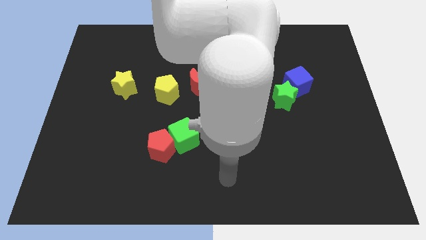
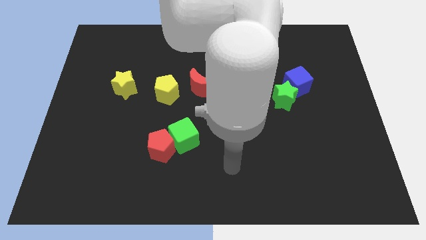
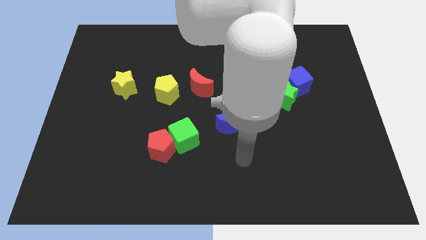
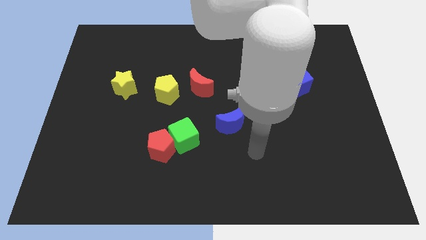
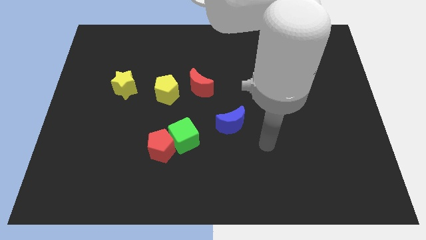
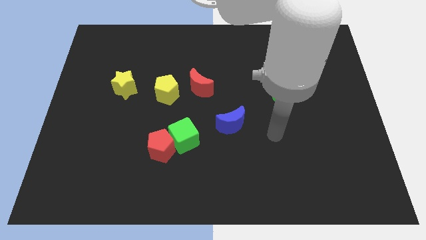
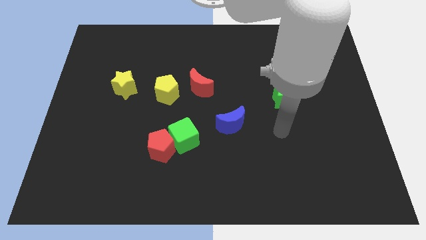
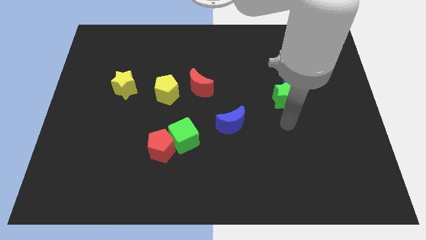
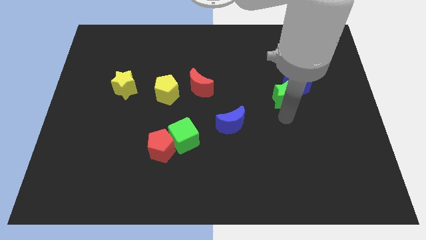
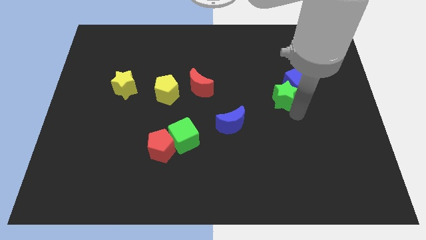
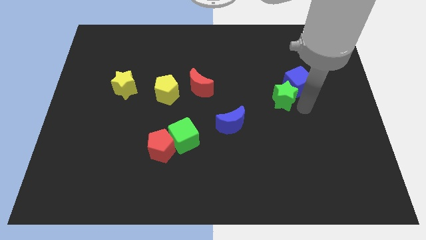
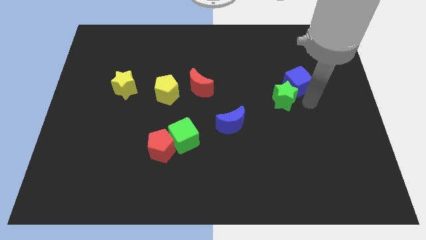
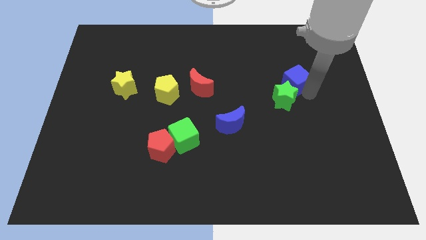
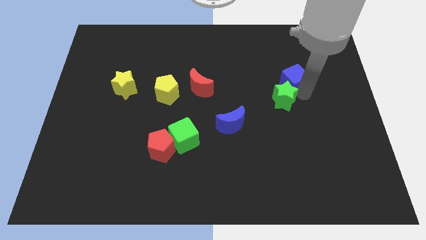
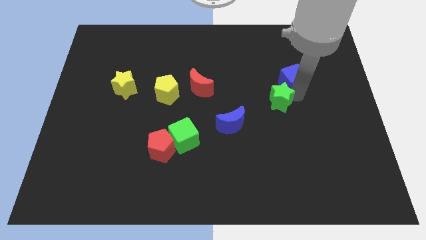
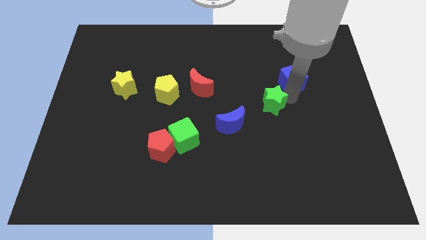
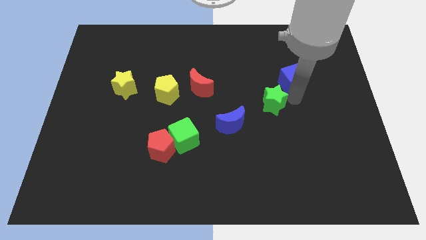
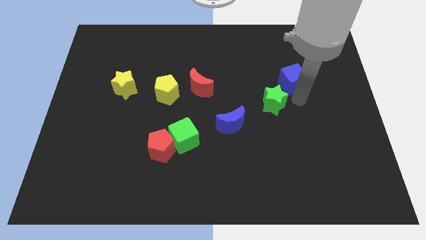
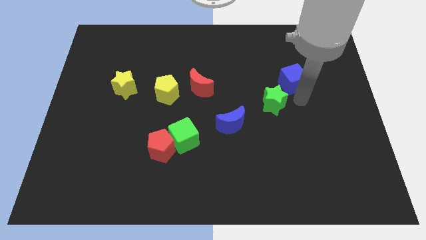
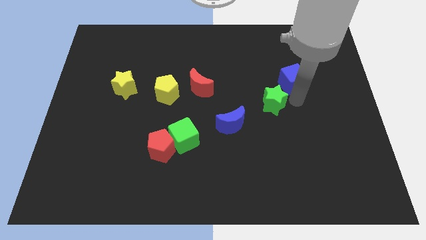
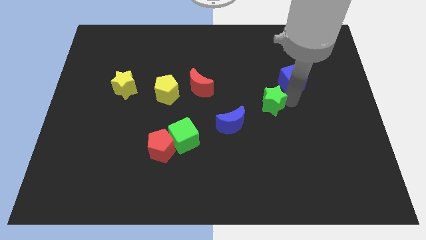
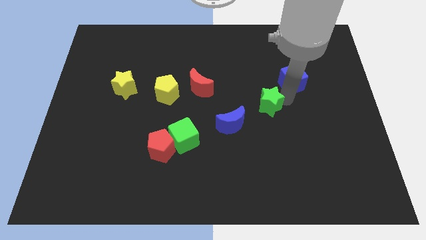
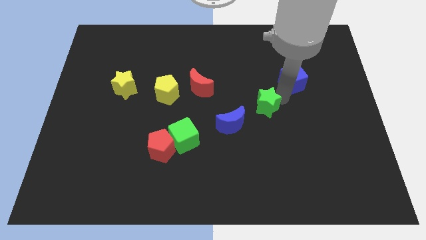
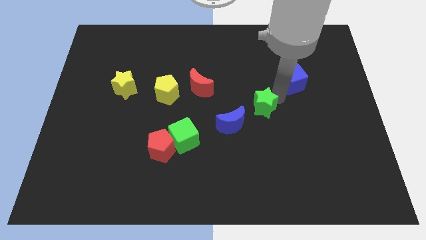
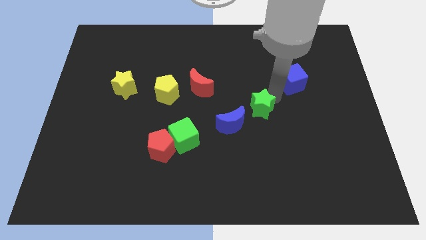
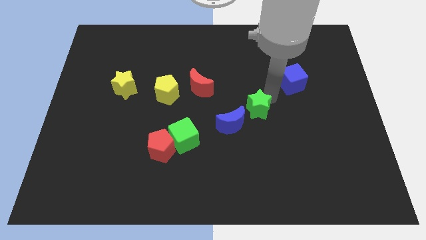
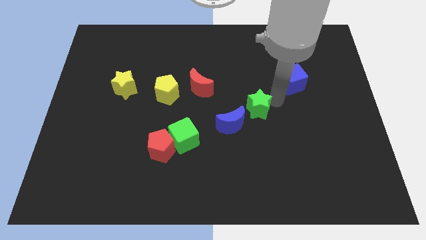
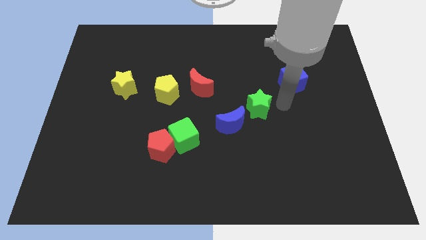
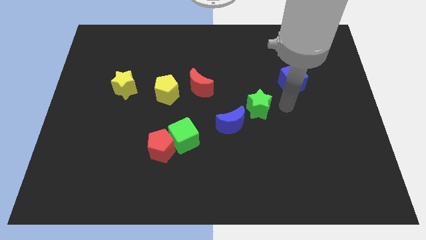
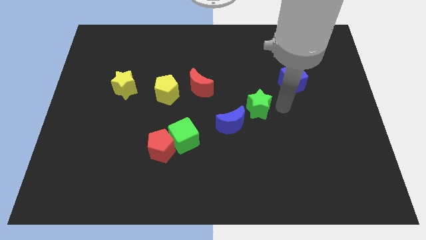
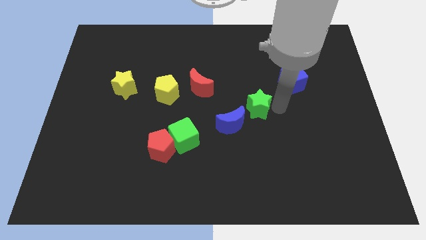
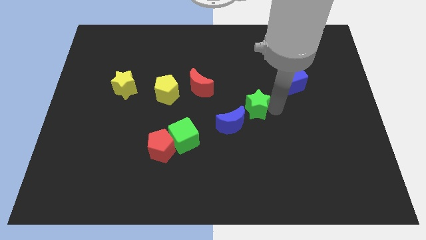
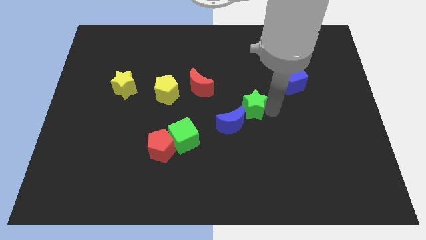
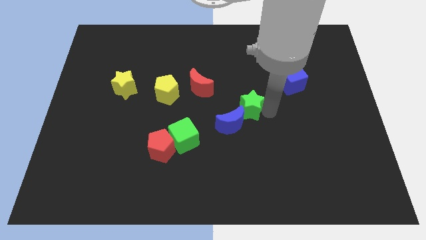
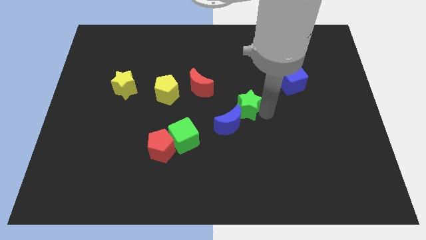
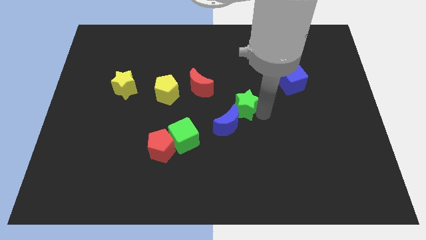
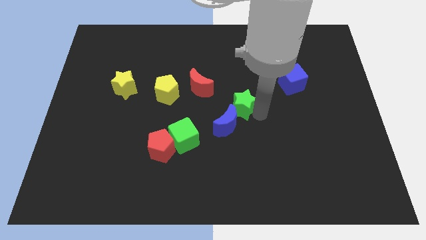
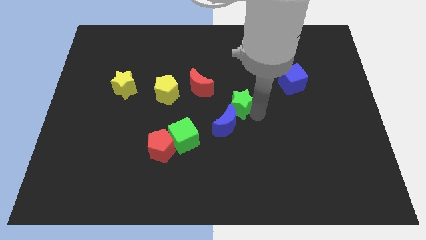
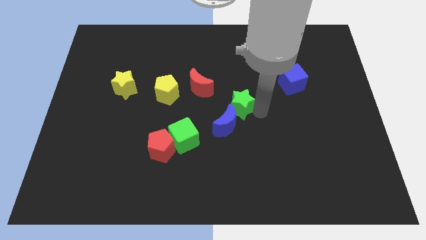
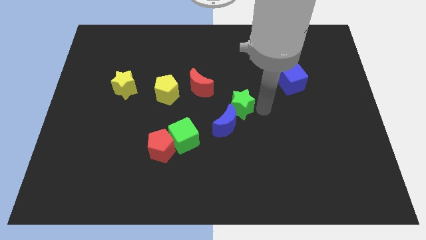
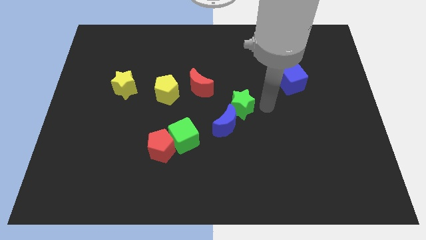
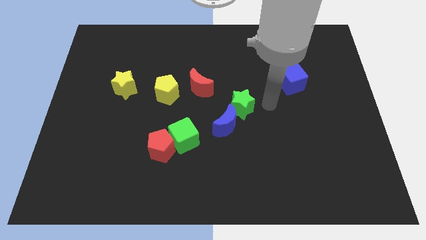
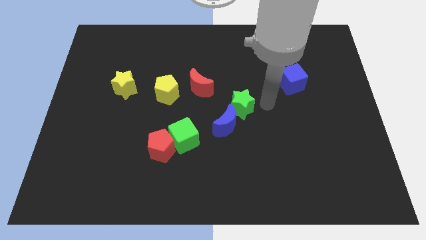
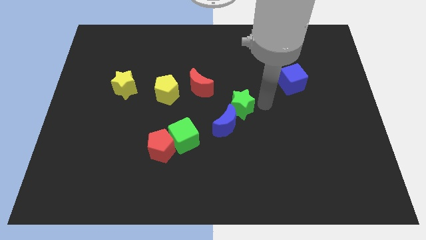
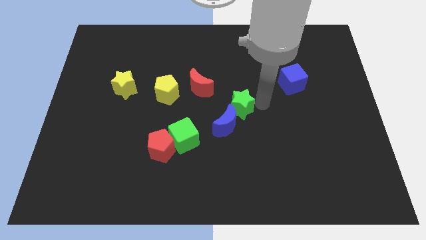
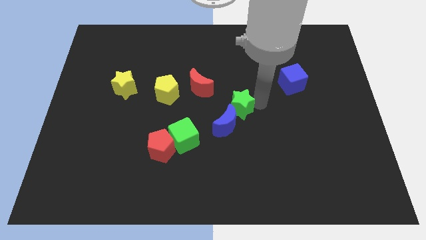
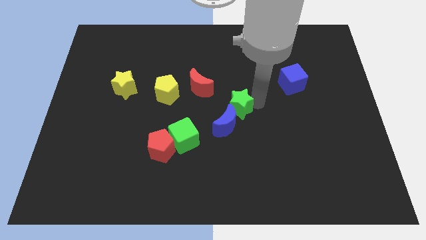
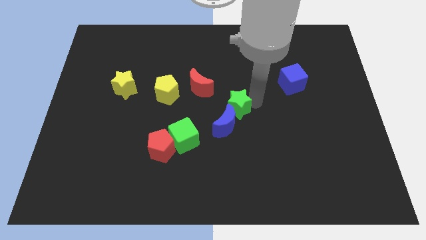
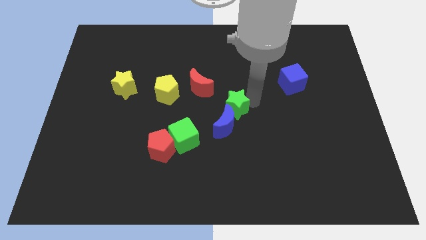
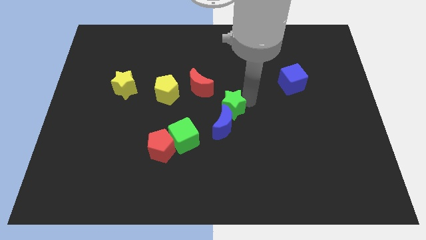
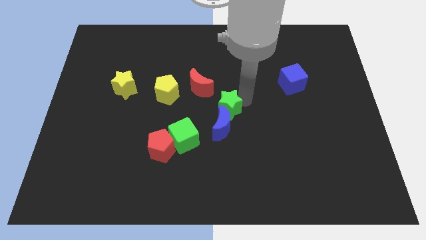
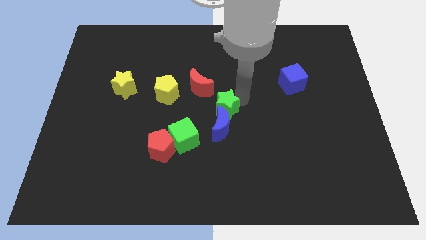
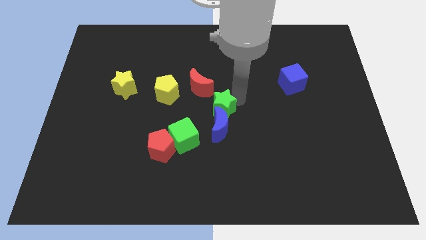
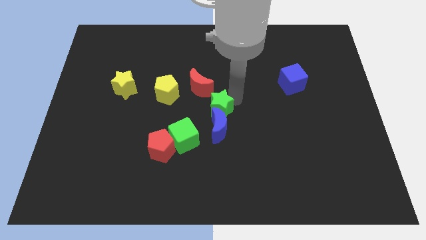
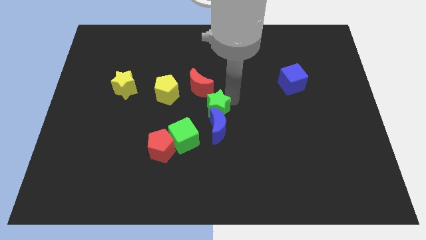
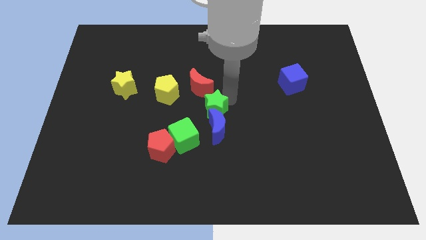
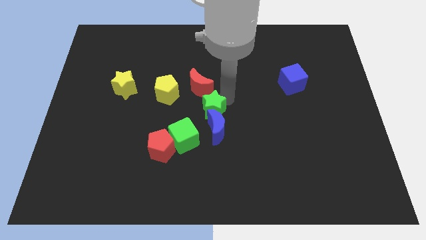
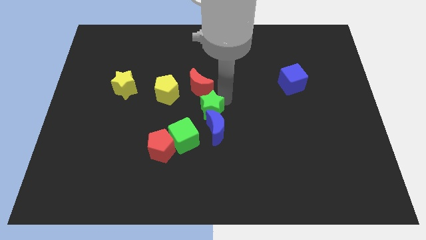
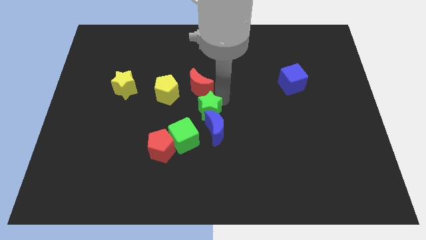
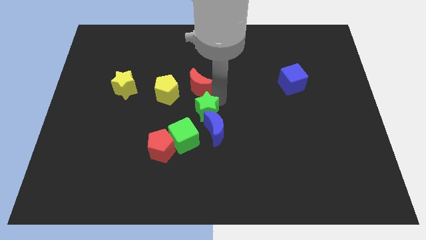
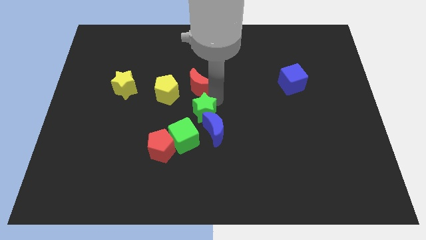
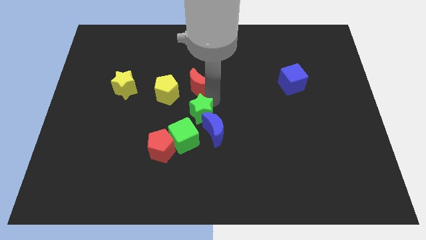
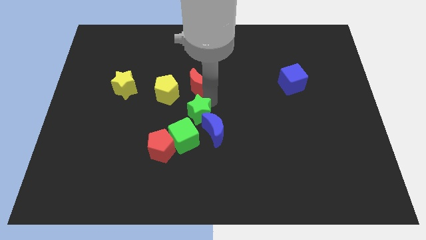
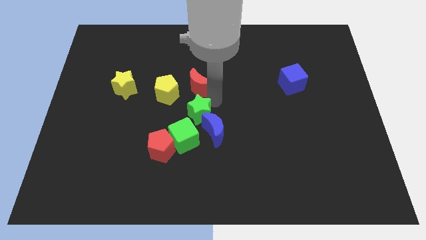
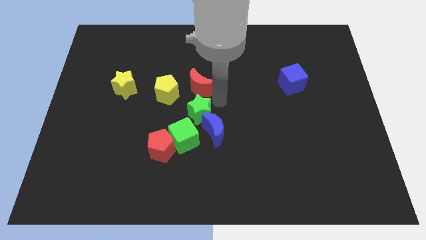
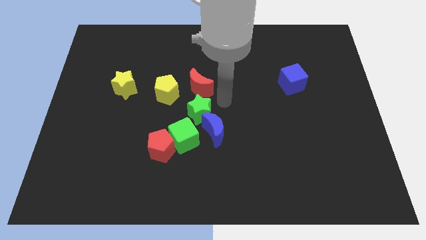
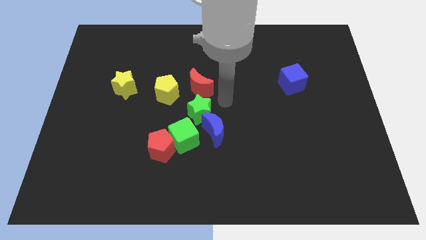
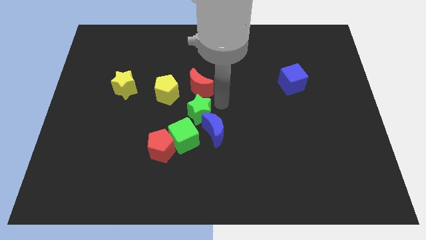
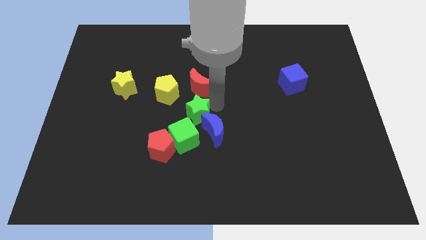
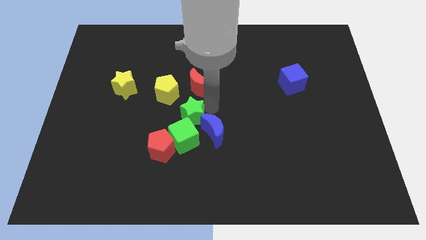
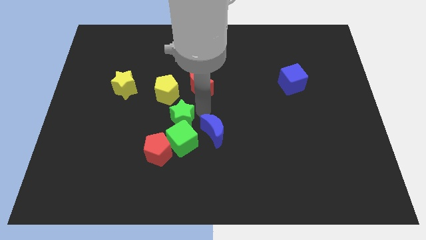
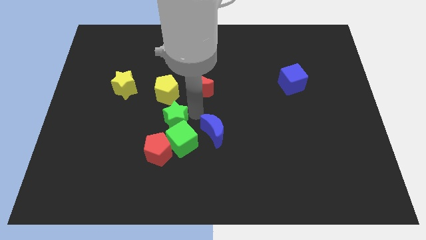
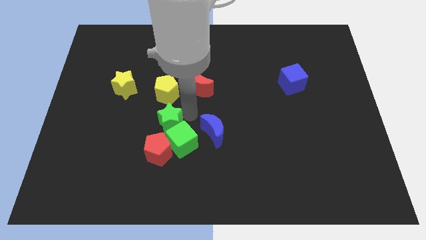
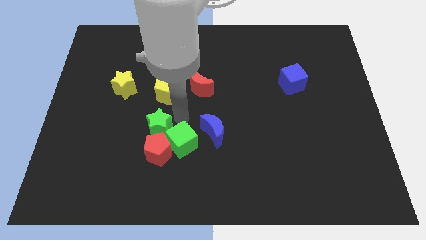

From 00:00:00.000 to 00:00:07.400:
slide the green star to the top left side of the red pentagon
